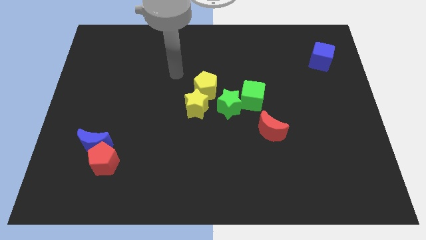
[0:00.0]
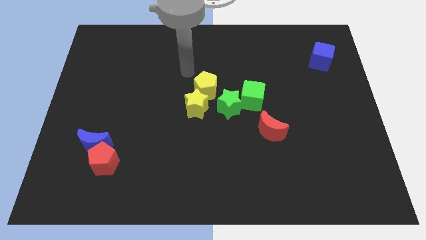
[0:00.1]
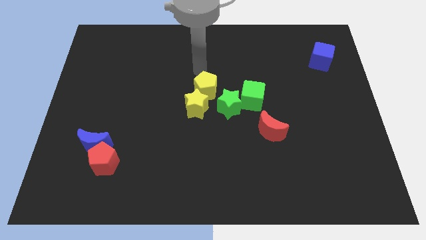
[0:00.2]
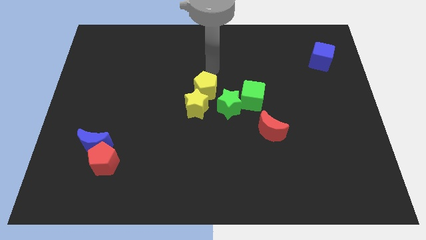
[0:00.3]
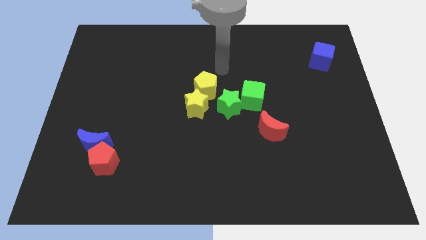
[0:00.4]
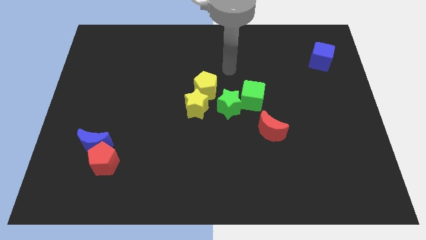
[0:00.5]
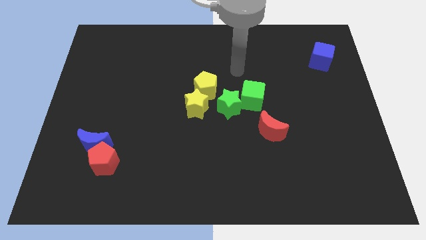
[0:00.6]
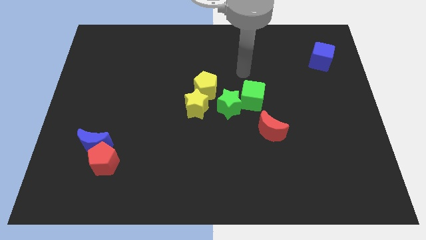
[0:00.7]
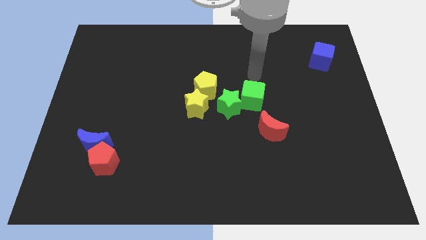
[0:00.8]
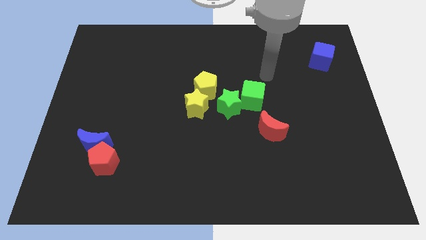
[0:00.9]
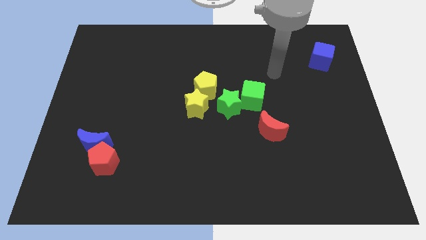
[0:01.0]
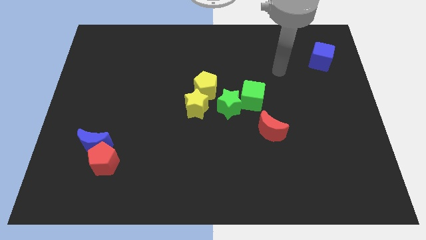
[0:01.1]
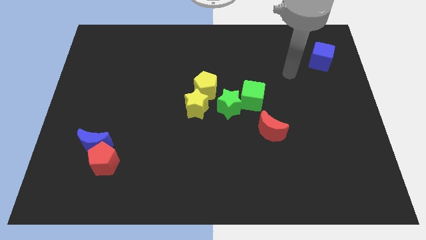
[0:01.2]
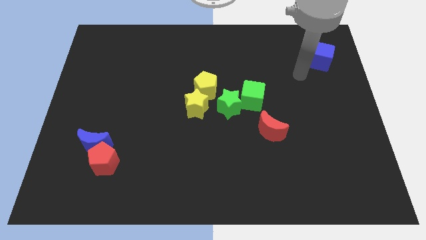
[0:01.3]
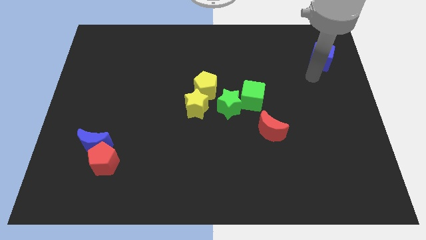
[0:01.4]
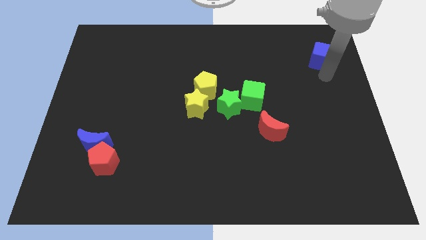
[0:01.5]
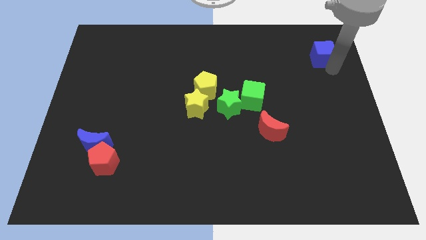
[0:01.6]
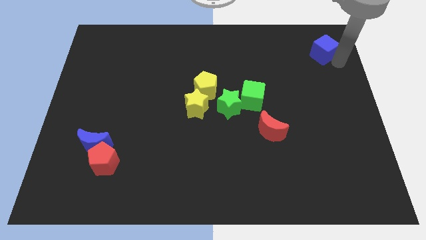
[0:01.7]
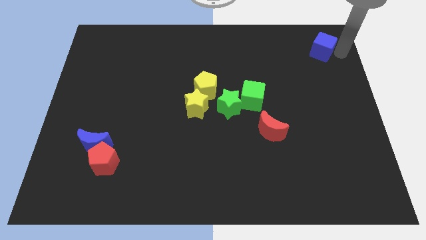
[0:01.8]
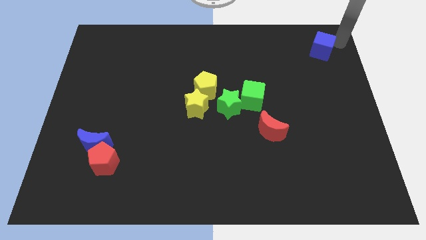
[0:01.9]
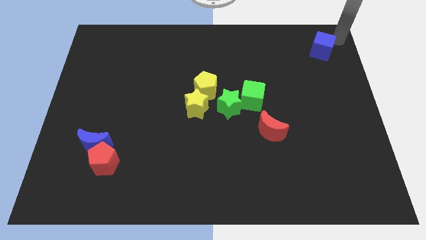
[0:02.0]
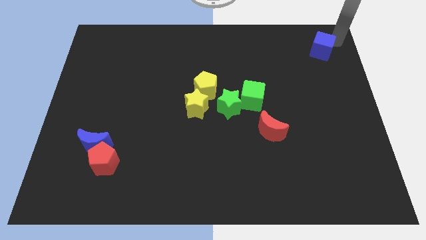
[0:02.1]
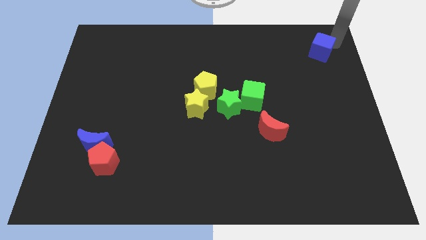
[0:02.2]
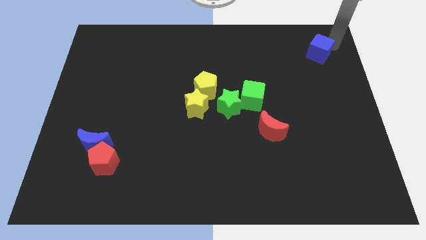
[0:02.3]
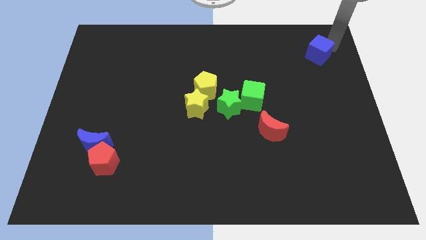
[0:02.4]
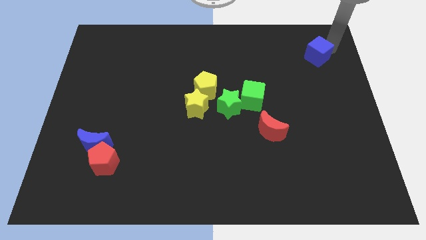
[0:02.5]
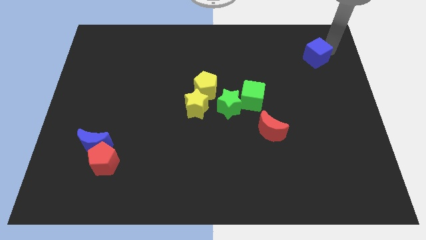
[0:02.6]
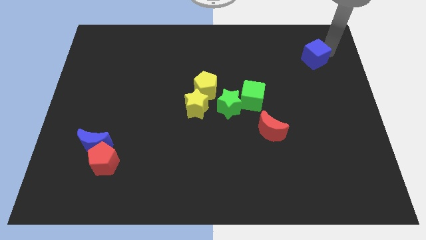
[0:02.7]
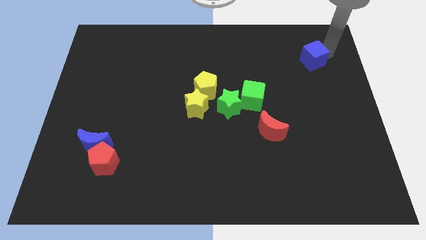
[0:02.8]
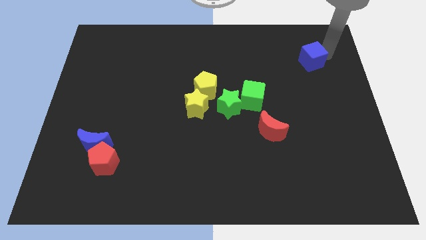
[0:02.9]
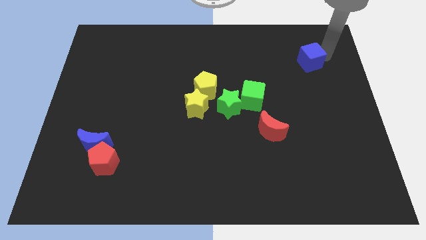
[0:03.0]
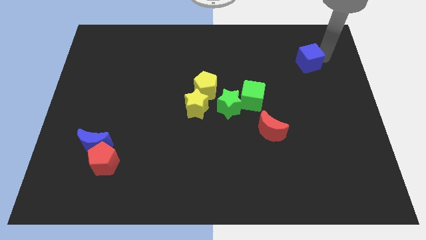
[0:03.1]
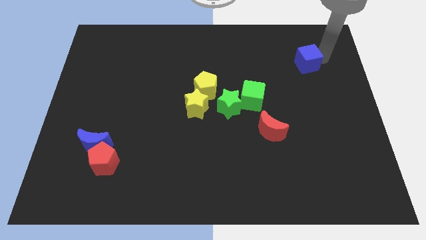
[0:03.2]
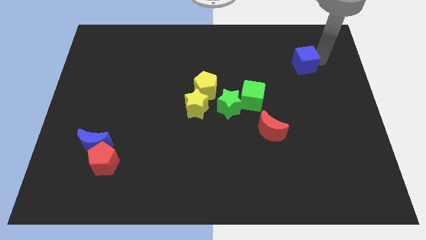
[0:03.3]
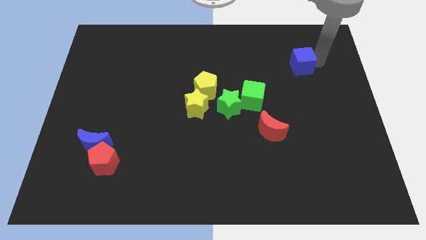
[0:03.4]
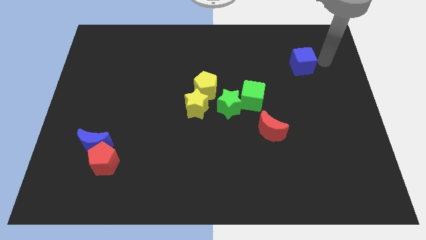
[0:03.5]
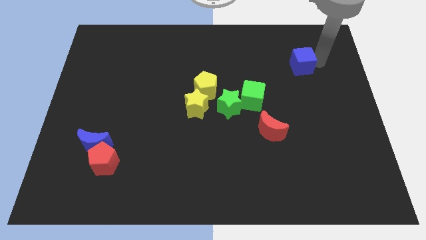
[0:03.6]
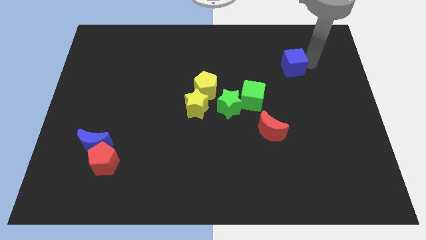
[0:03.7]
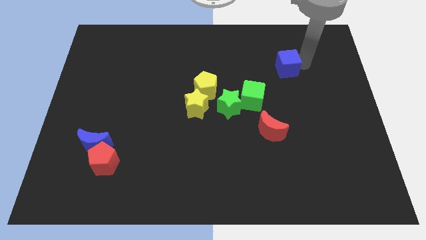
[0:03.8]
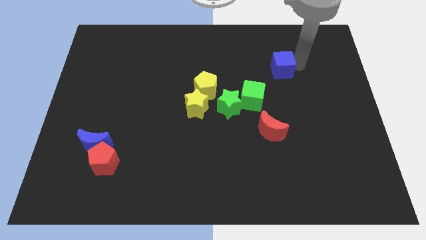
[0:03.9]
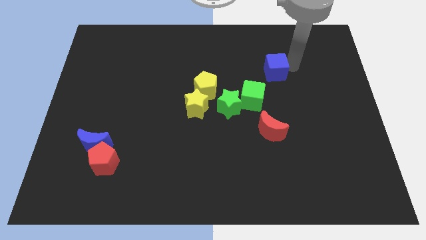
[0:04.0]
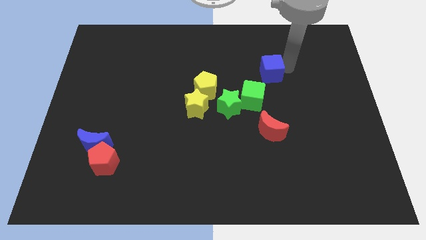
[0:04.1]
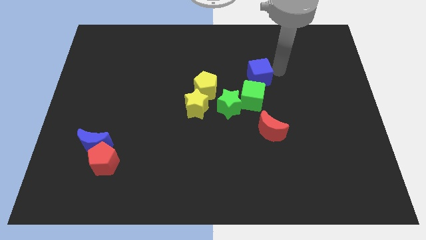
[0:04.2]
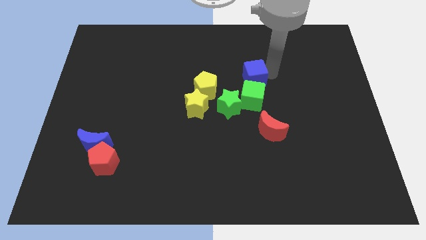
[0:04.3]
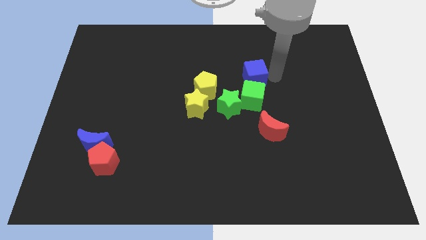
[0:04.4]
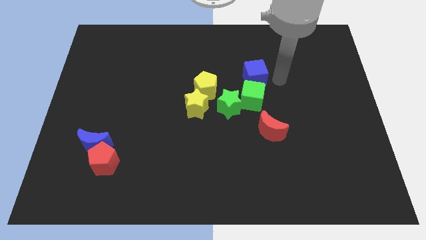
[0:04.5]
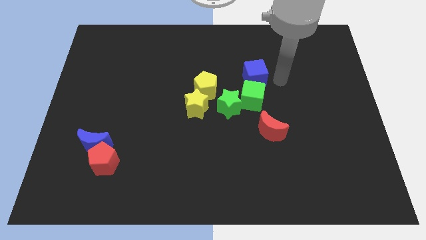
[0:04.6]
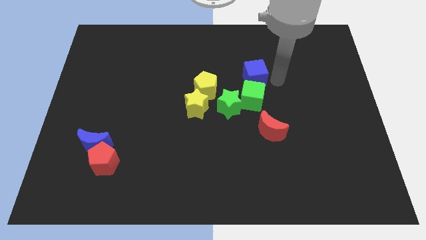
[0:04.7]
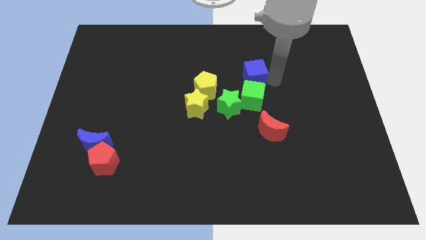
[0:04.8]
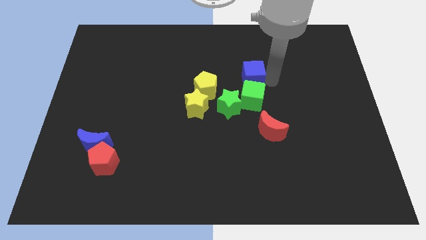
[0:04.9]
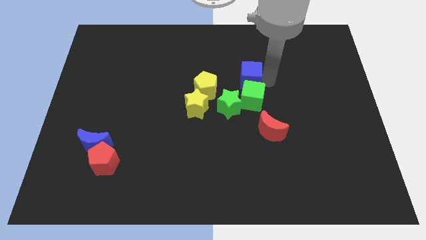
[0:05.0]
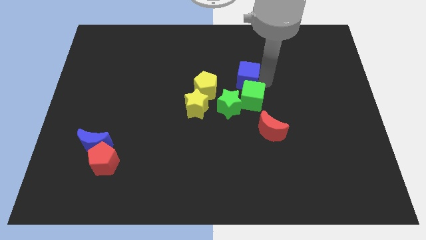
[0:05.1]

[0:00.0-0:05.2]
put the blue cube to the top right side of the yellow pentagon
